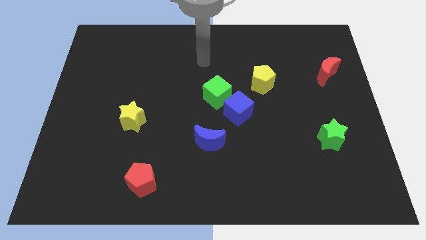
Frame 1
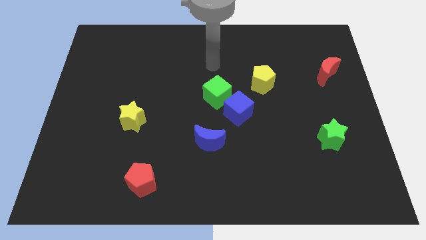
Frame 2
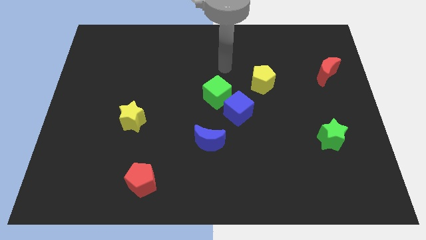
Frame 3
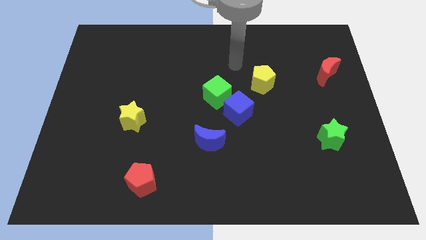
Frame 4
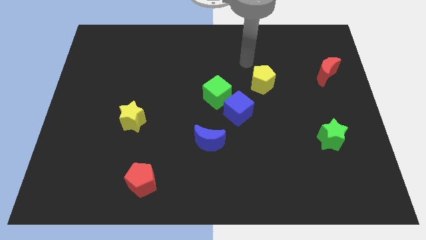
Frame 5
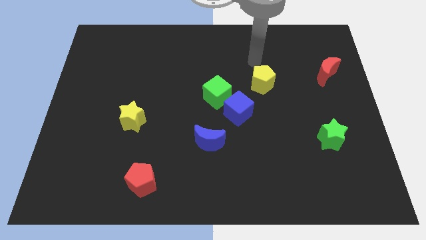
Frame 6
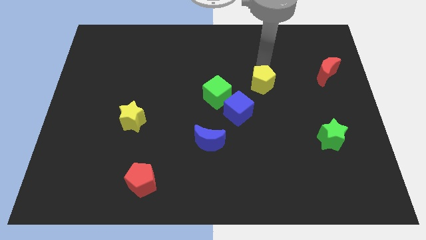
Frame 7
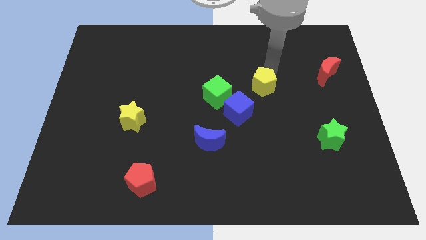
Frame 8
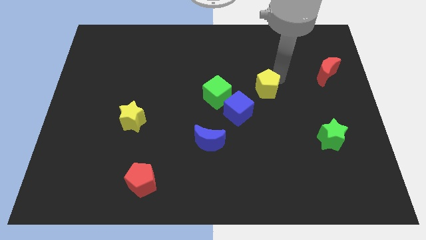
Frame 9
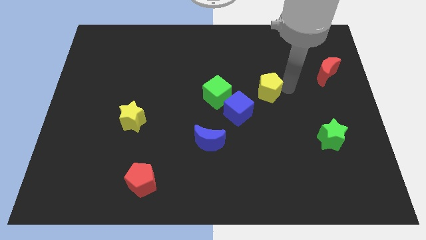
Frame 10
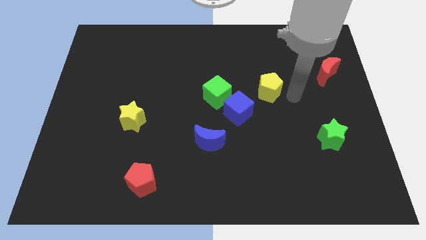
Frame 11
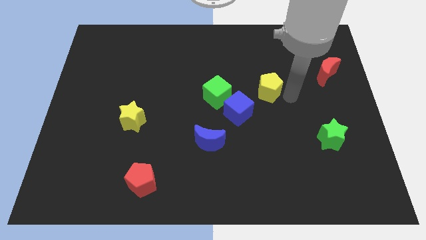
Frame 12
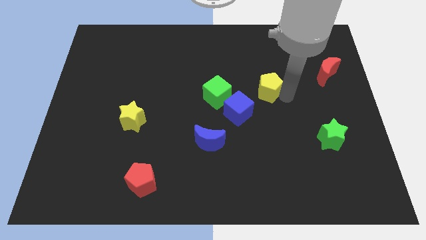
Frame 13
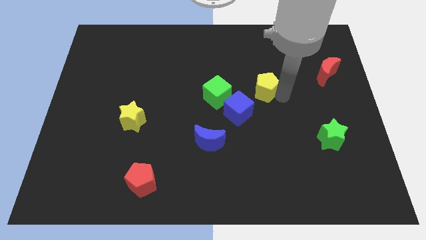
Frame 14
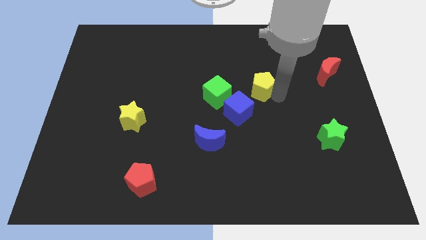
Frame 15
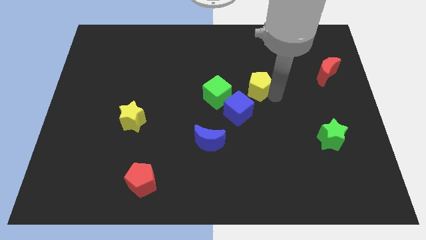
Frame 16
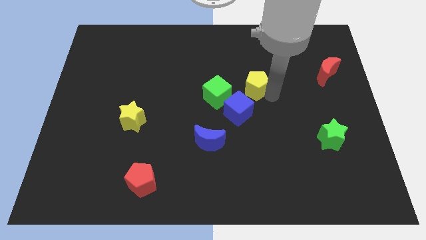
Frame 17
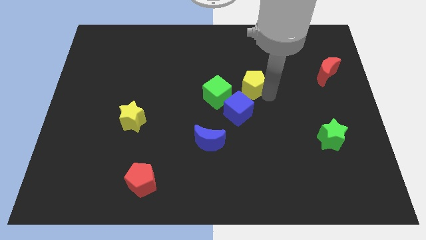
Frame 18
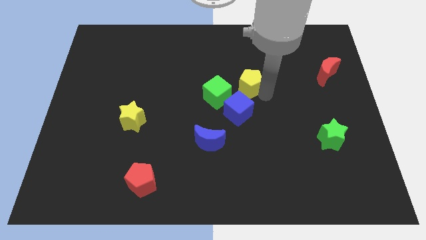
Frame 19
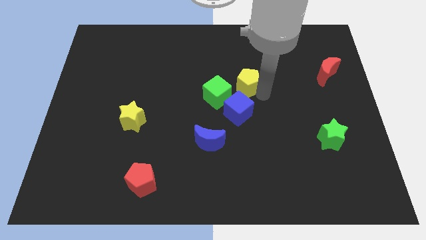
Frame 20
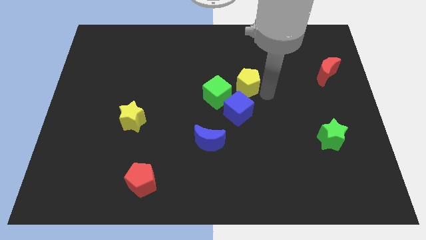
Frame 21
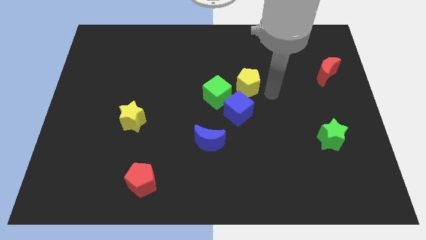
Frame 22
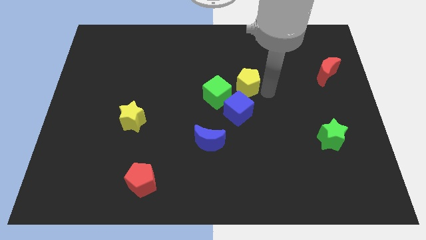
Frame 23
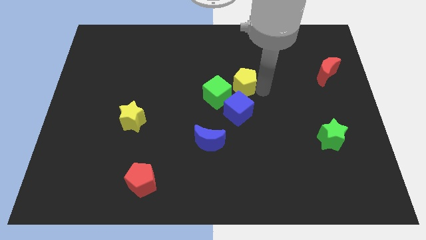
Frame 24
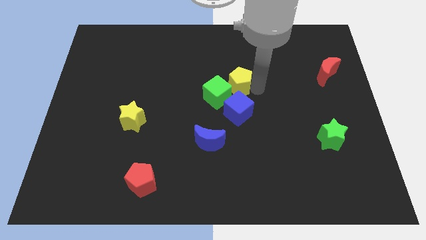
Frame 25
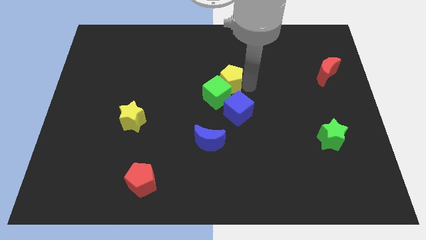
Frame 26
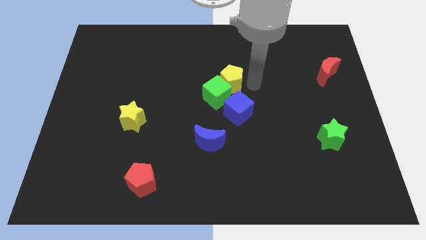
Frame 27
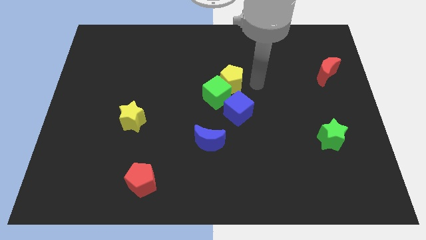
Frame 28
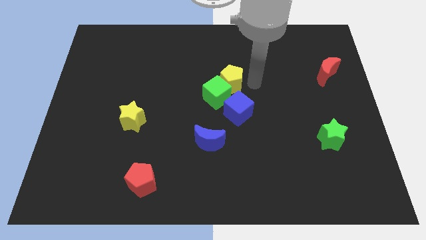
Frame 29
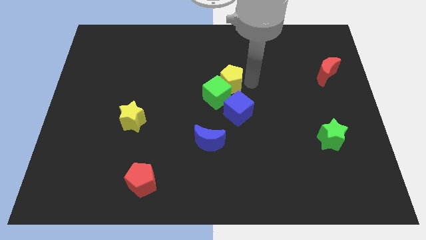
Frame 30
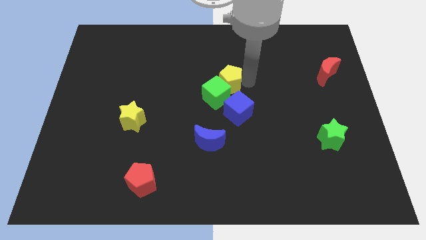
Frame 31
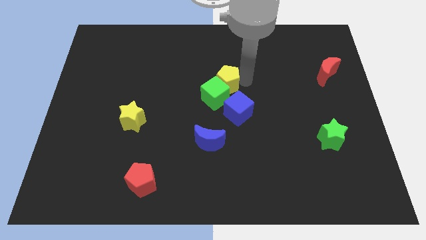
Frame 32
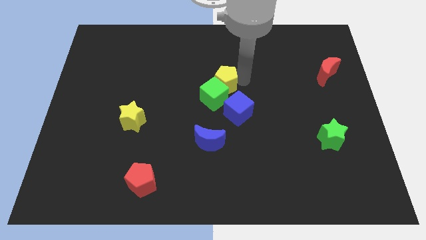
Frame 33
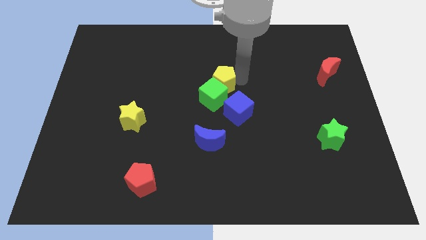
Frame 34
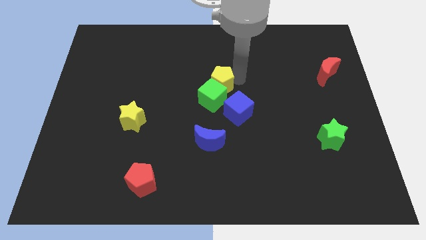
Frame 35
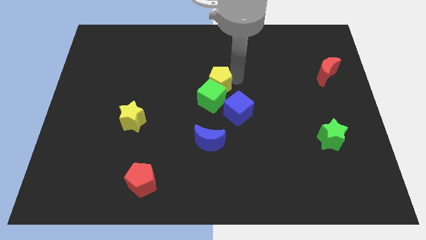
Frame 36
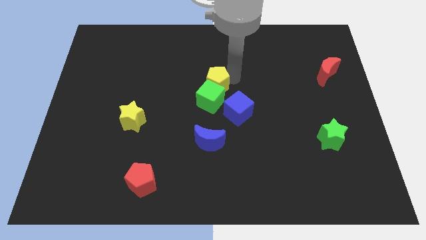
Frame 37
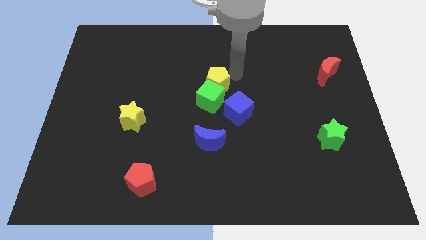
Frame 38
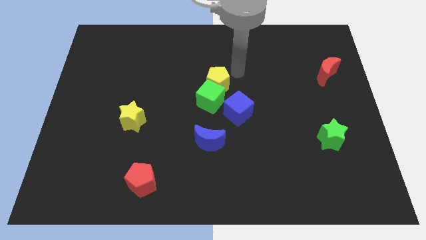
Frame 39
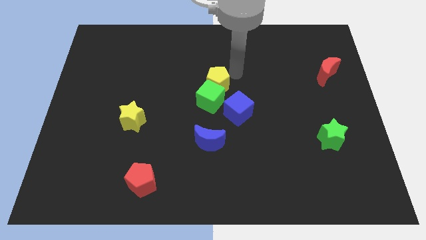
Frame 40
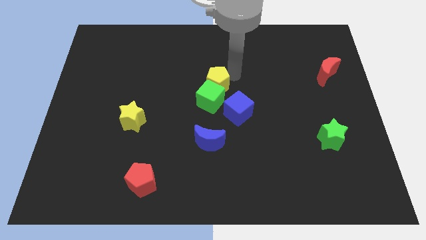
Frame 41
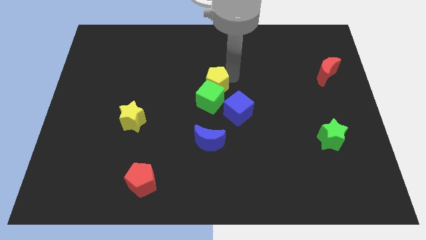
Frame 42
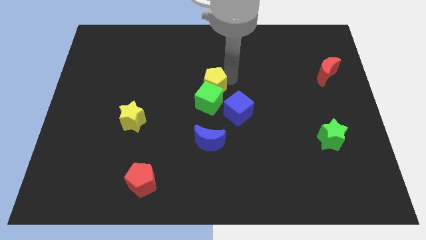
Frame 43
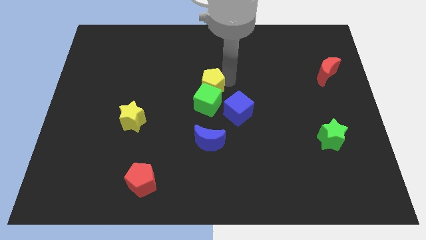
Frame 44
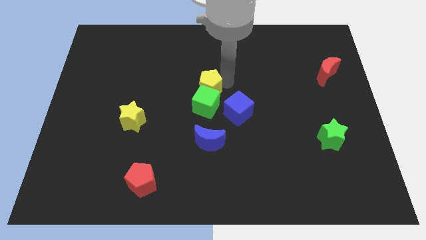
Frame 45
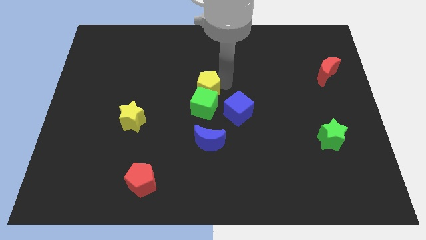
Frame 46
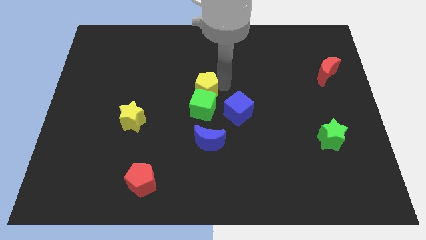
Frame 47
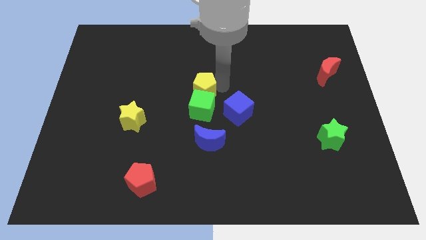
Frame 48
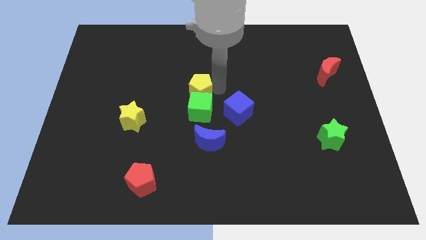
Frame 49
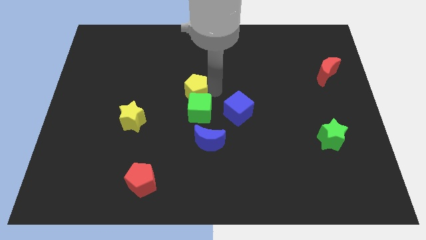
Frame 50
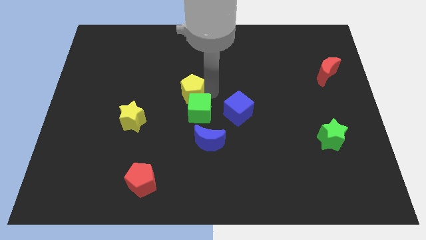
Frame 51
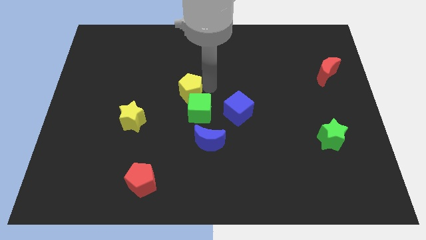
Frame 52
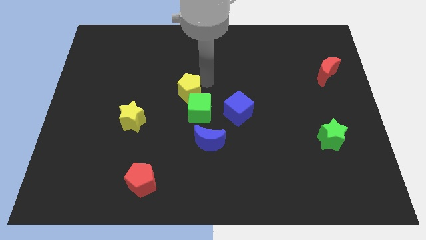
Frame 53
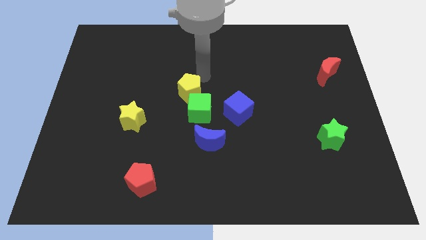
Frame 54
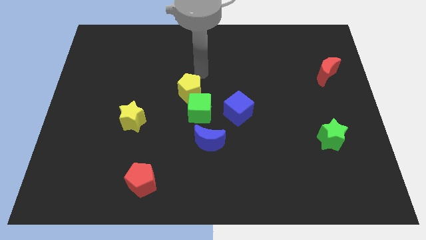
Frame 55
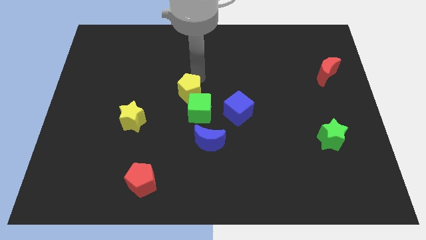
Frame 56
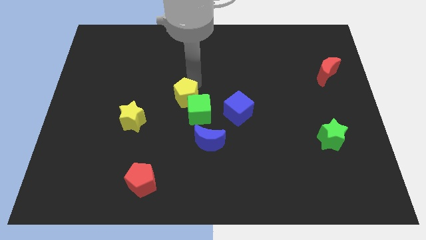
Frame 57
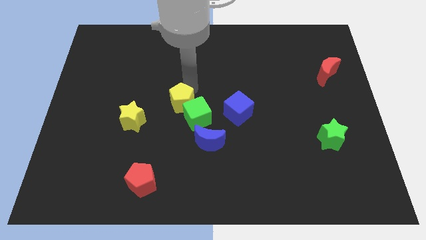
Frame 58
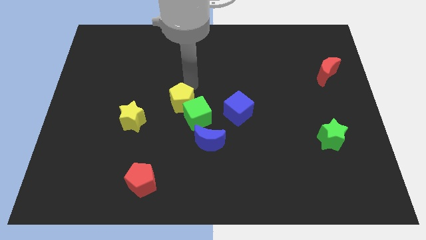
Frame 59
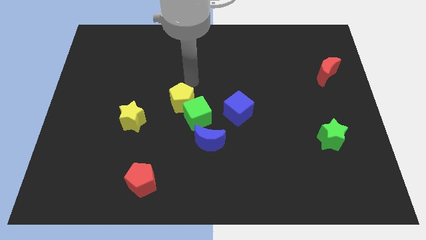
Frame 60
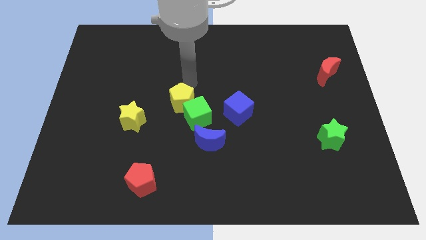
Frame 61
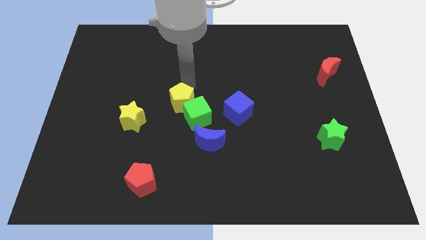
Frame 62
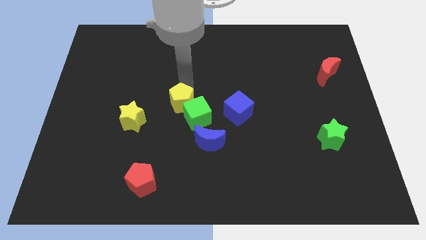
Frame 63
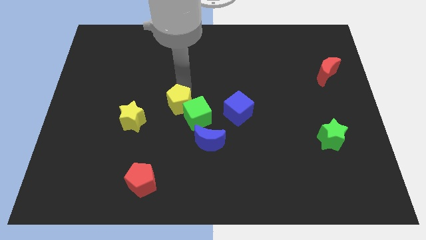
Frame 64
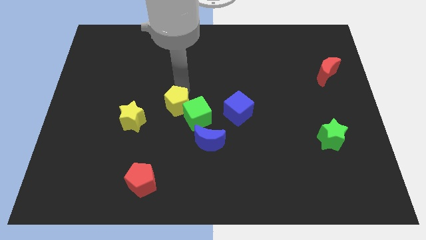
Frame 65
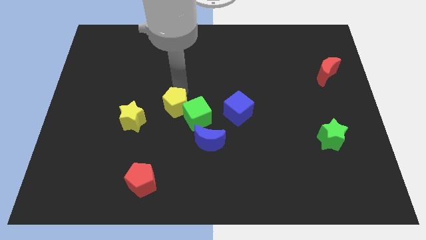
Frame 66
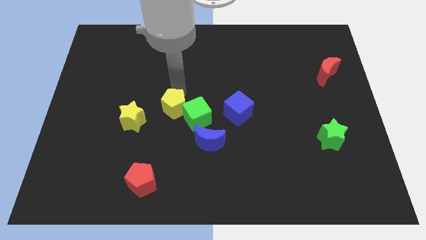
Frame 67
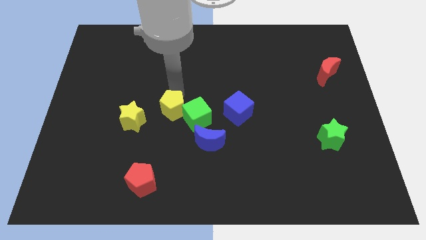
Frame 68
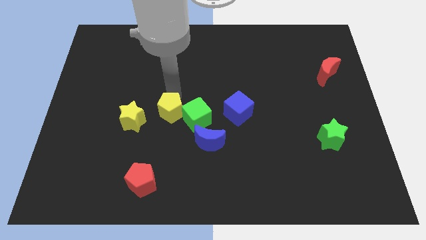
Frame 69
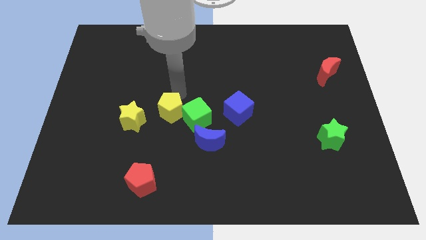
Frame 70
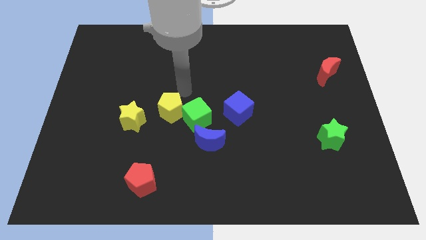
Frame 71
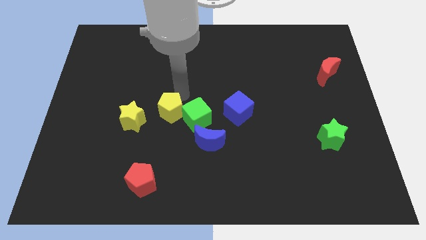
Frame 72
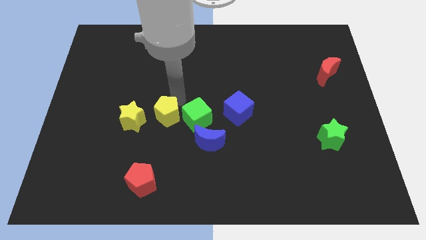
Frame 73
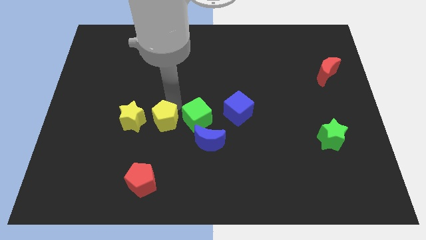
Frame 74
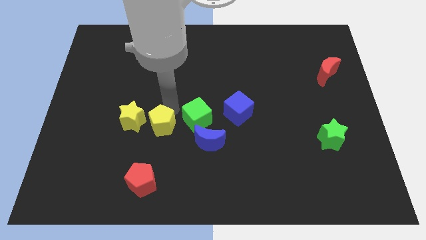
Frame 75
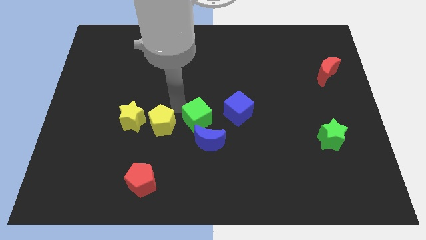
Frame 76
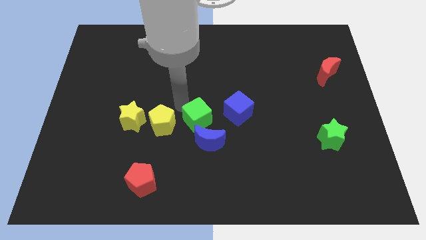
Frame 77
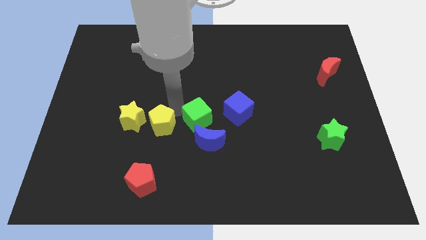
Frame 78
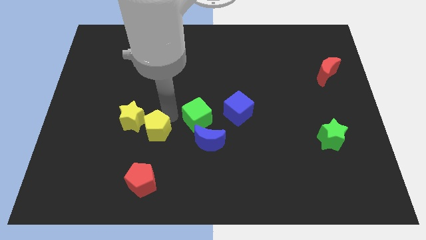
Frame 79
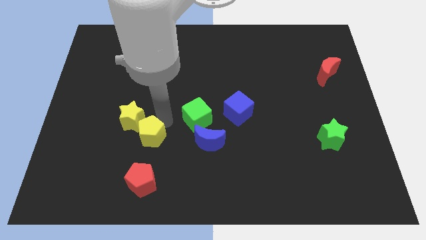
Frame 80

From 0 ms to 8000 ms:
slide the yellow pentagon to the bottom side of the yellow star
